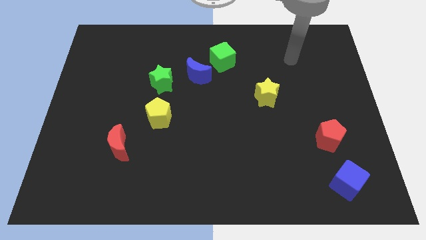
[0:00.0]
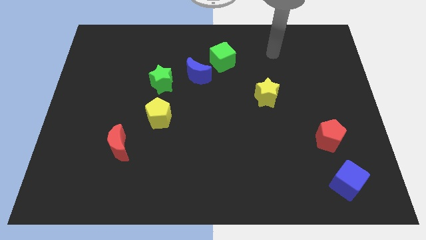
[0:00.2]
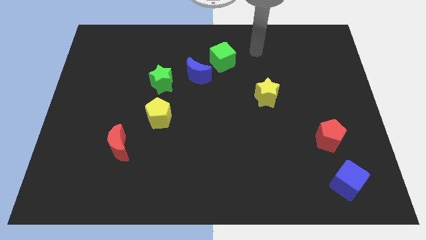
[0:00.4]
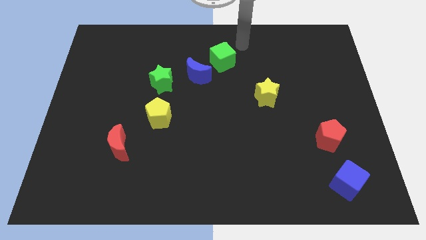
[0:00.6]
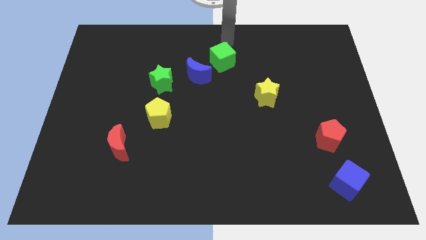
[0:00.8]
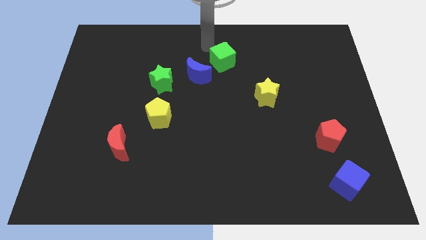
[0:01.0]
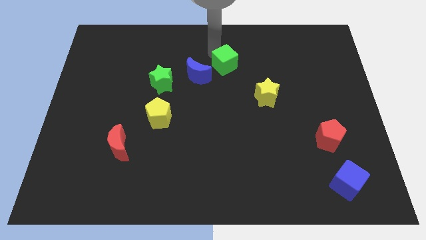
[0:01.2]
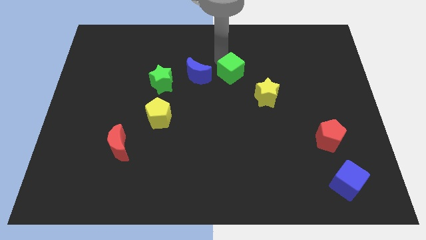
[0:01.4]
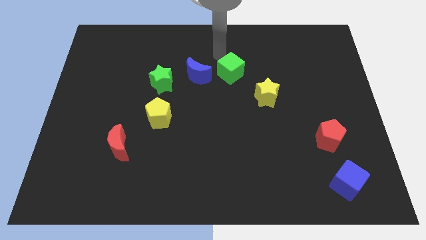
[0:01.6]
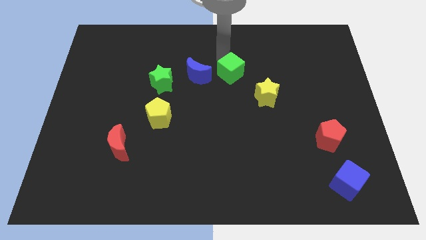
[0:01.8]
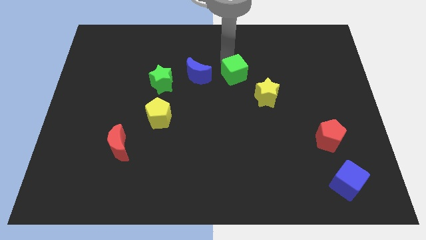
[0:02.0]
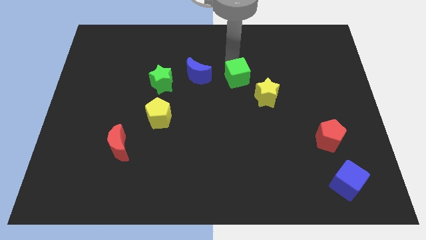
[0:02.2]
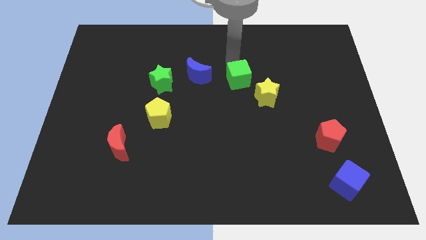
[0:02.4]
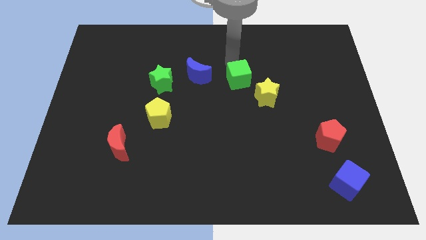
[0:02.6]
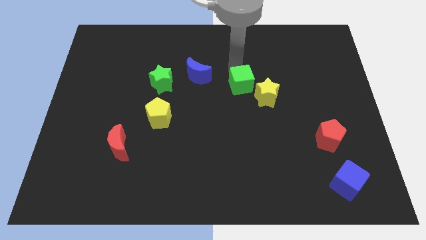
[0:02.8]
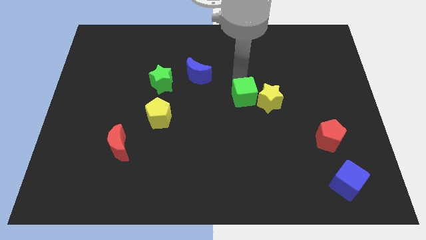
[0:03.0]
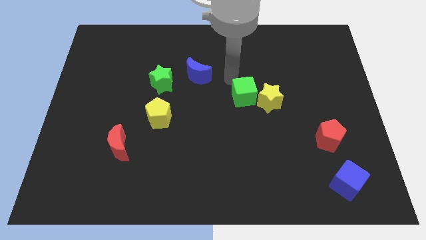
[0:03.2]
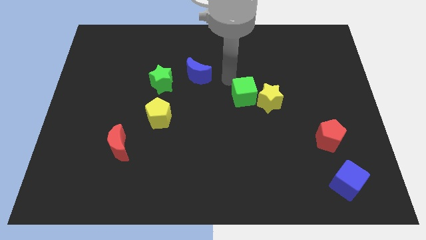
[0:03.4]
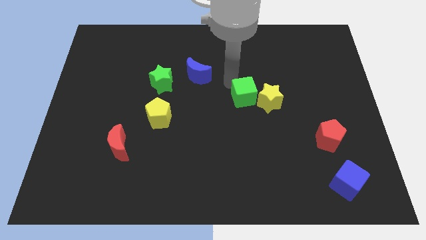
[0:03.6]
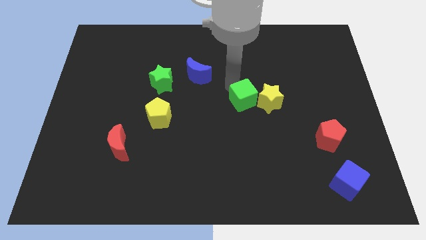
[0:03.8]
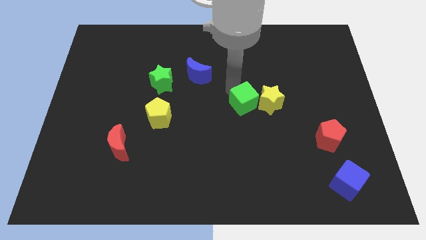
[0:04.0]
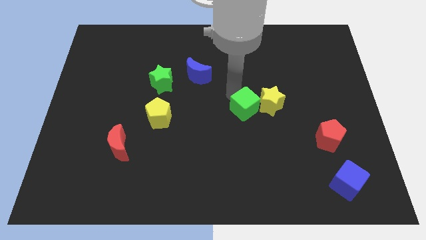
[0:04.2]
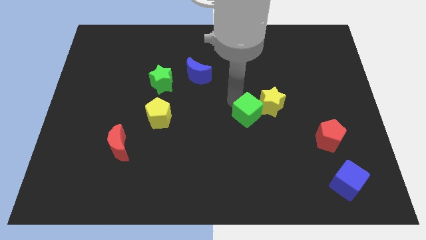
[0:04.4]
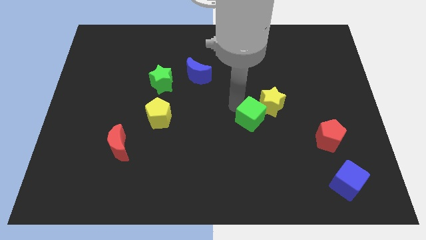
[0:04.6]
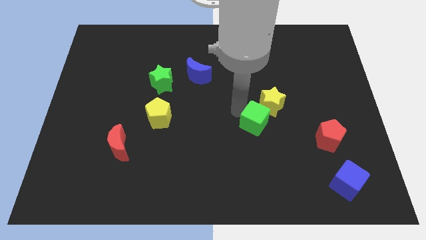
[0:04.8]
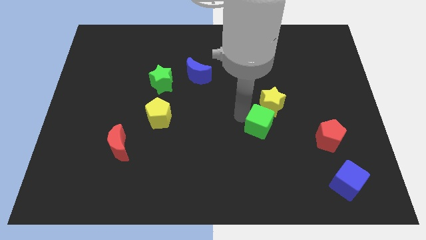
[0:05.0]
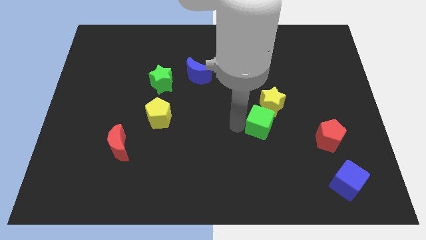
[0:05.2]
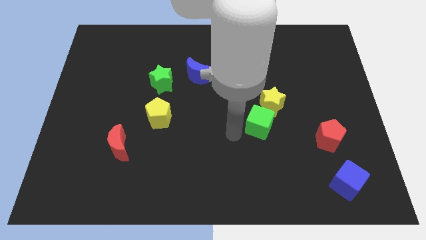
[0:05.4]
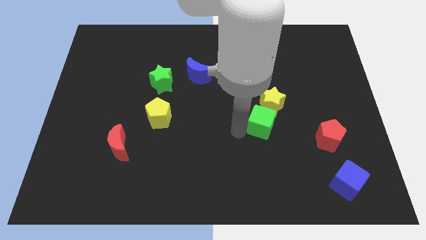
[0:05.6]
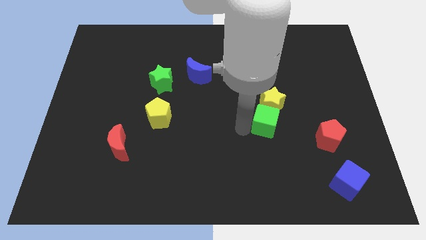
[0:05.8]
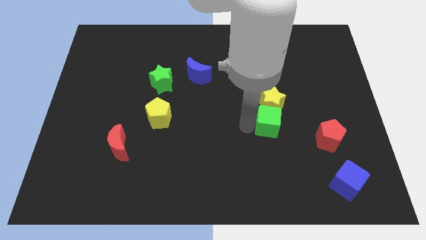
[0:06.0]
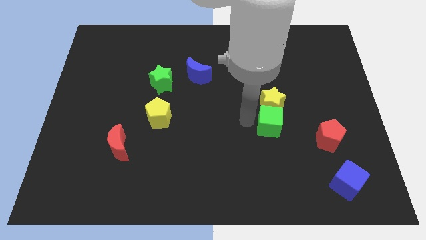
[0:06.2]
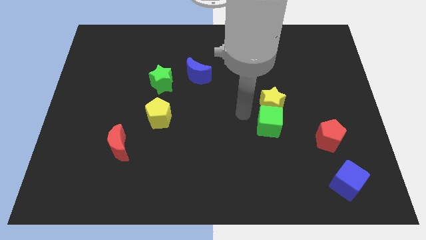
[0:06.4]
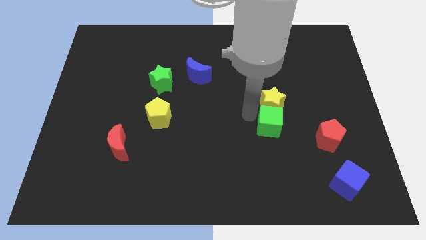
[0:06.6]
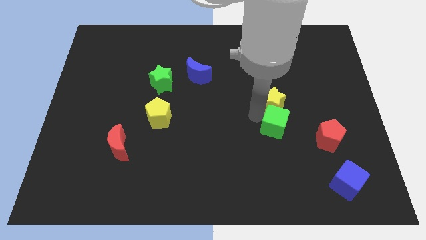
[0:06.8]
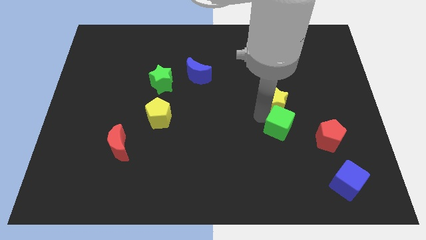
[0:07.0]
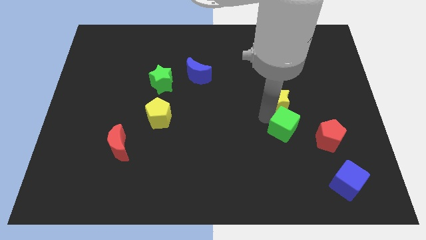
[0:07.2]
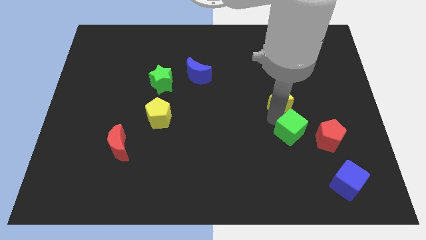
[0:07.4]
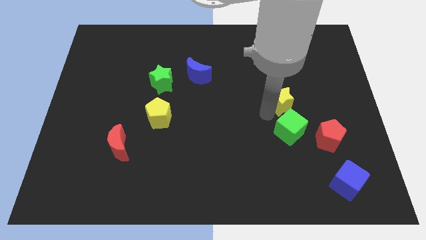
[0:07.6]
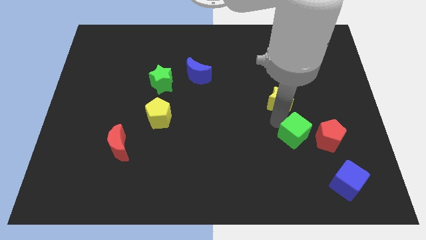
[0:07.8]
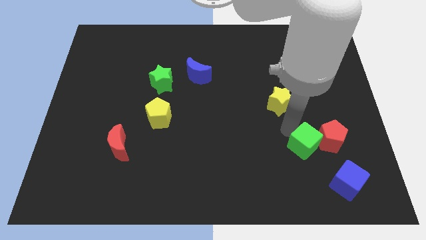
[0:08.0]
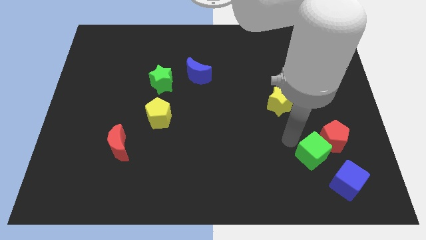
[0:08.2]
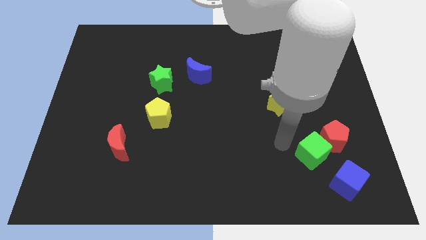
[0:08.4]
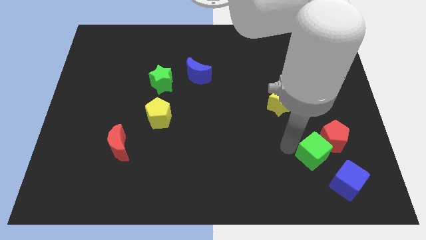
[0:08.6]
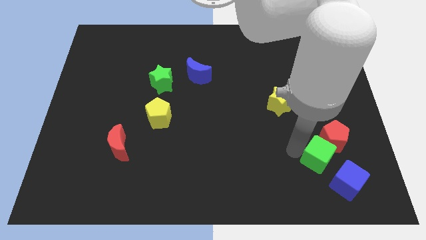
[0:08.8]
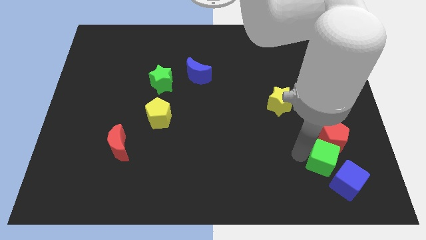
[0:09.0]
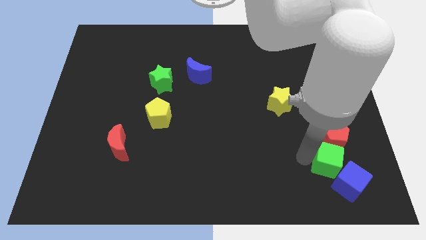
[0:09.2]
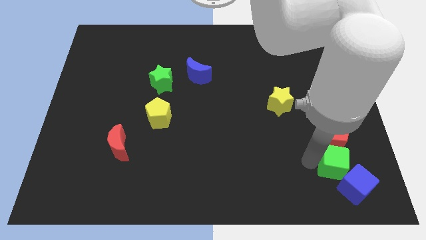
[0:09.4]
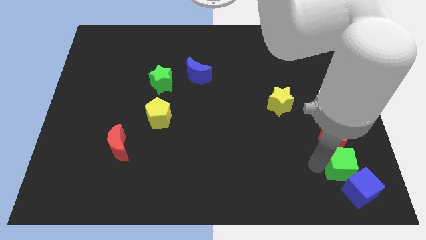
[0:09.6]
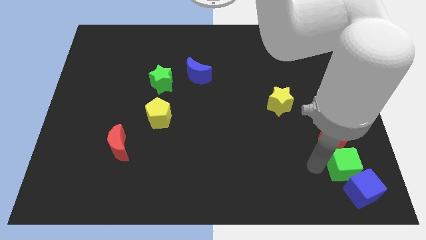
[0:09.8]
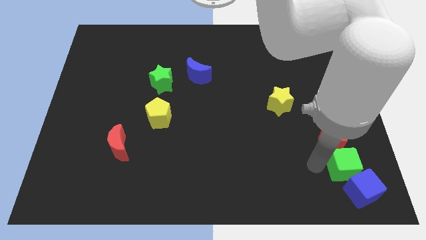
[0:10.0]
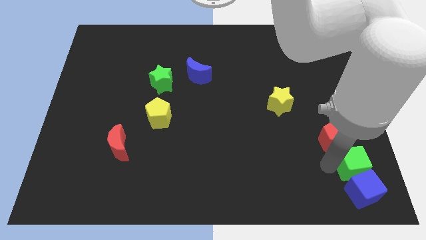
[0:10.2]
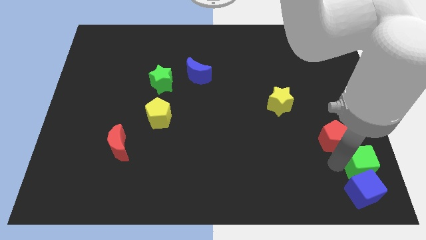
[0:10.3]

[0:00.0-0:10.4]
put the green cube to the lower right corner

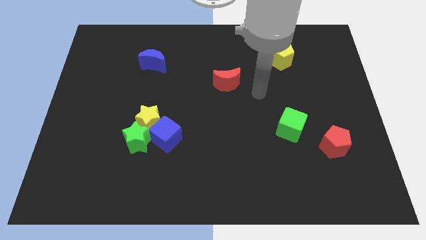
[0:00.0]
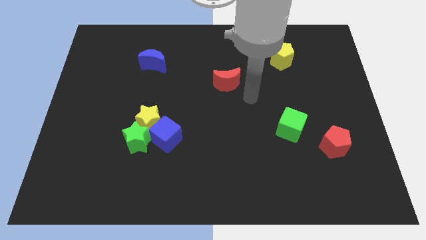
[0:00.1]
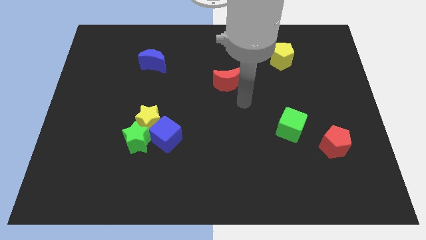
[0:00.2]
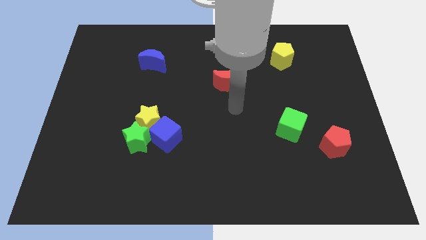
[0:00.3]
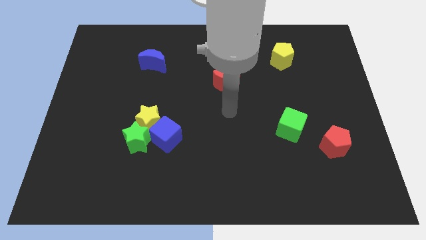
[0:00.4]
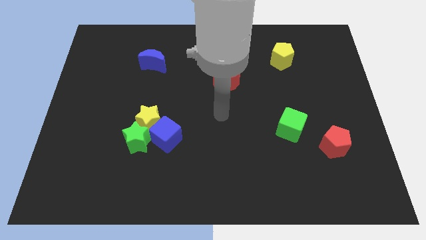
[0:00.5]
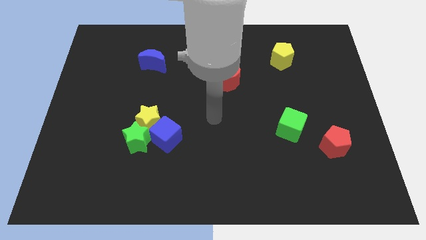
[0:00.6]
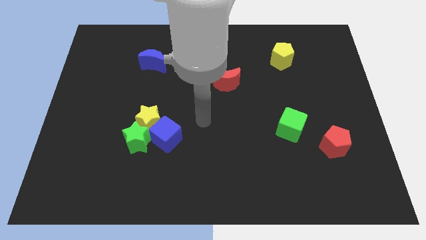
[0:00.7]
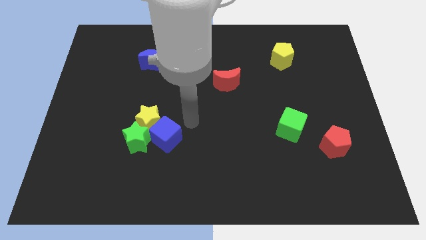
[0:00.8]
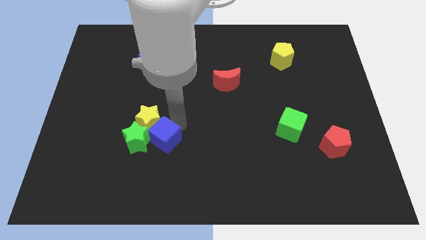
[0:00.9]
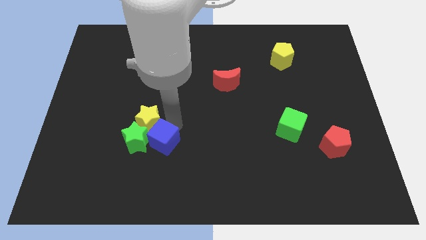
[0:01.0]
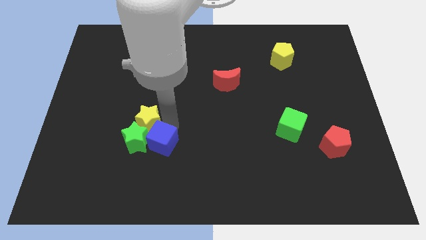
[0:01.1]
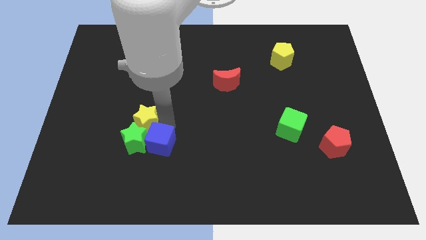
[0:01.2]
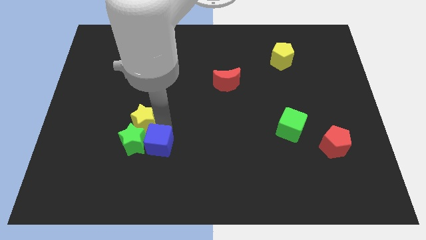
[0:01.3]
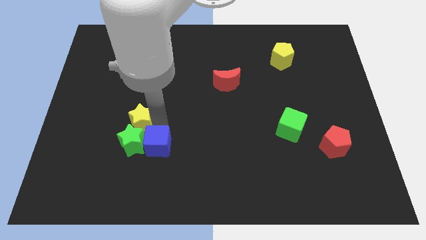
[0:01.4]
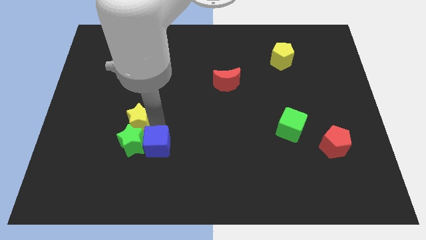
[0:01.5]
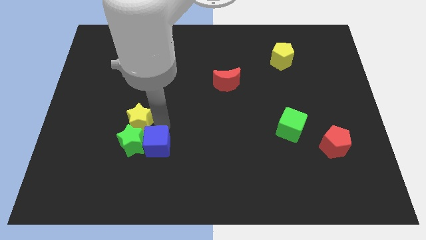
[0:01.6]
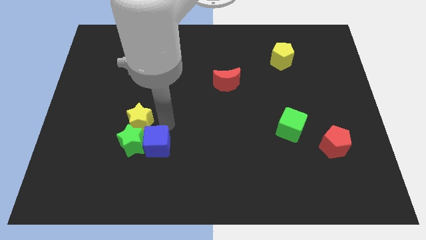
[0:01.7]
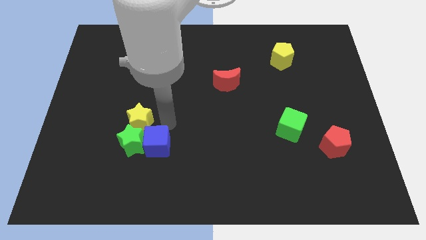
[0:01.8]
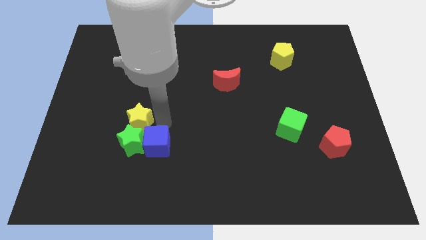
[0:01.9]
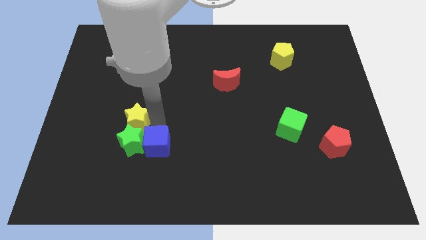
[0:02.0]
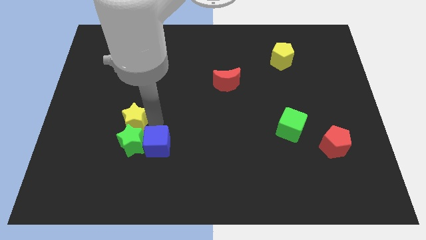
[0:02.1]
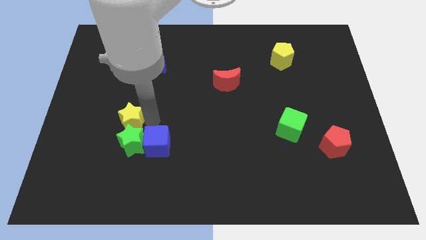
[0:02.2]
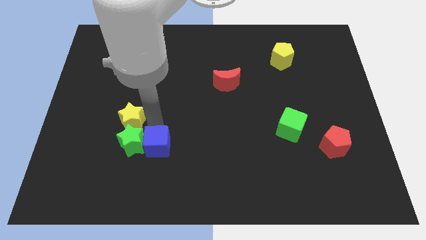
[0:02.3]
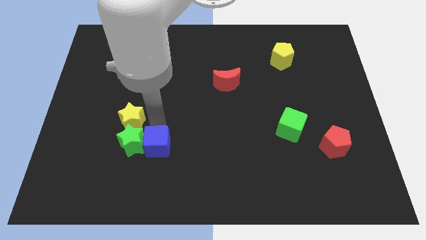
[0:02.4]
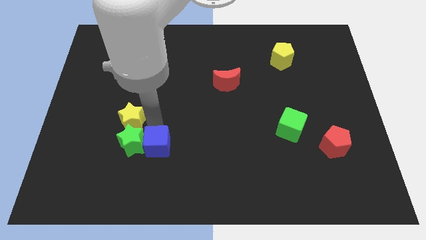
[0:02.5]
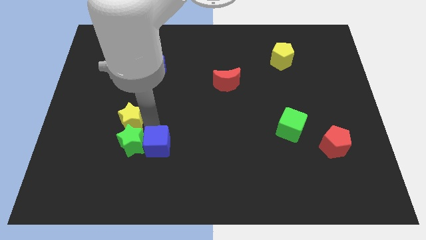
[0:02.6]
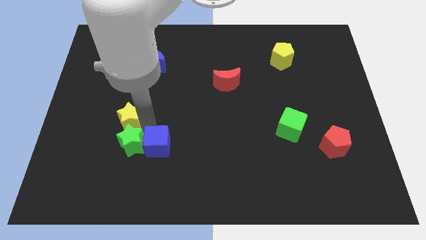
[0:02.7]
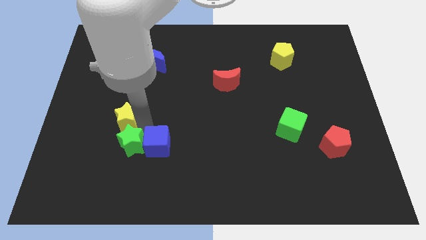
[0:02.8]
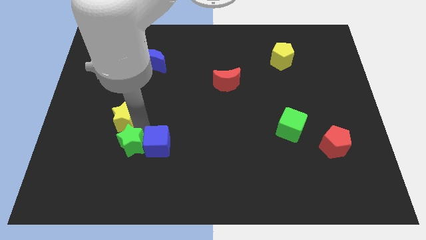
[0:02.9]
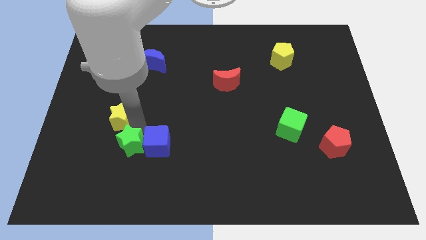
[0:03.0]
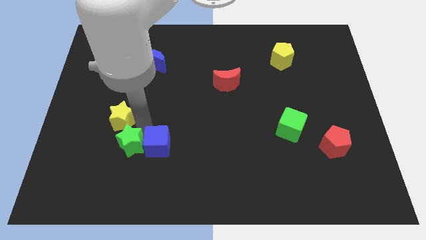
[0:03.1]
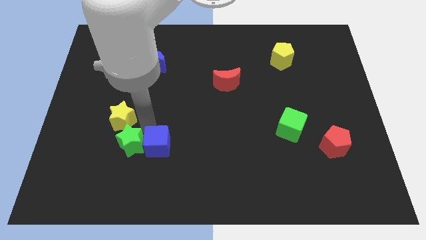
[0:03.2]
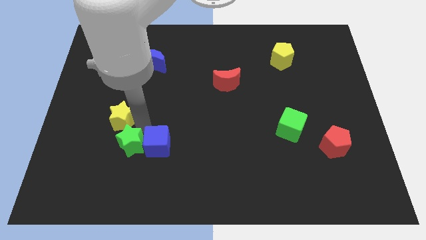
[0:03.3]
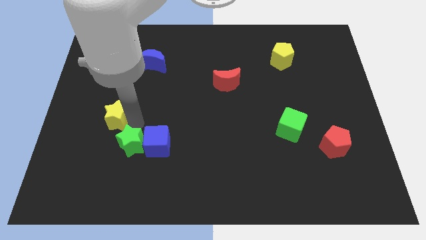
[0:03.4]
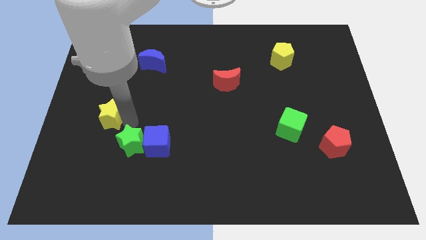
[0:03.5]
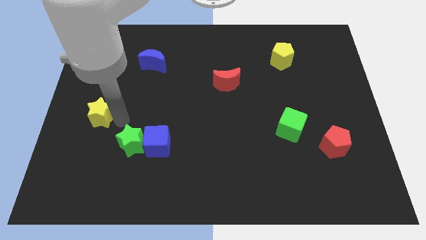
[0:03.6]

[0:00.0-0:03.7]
put the yellow star to the left side of the board
